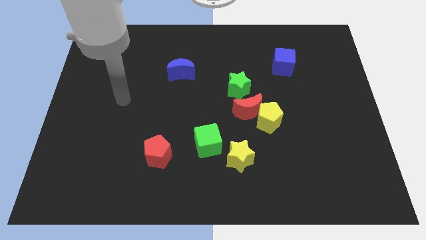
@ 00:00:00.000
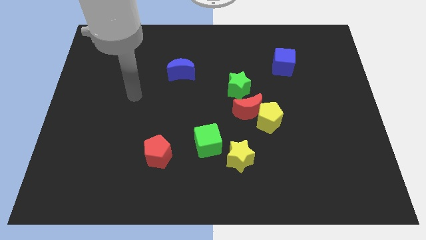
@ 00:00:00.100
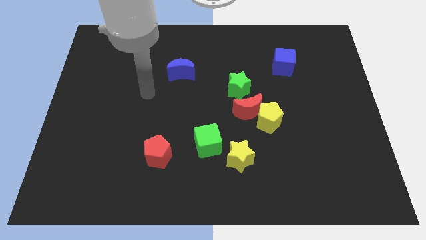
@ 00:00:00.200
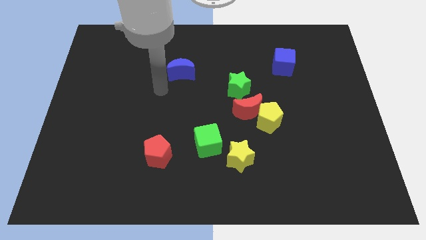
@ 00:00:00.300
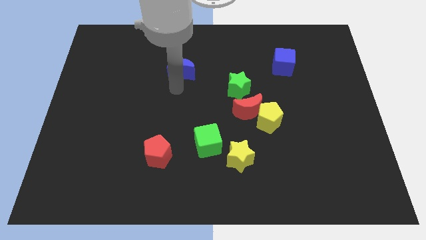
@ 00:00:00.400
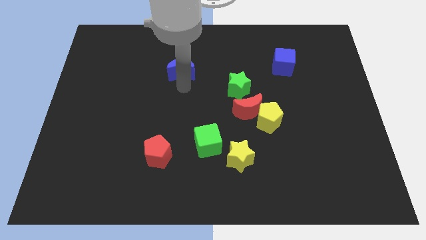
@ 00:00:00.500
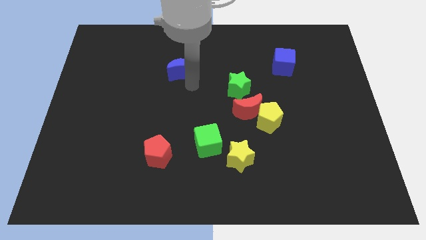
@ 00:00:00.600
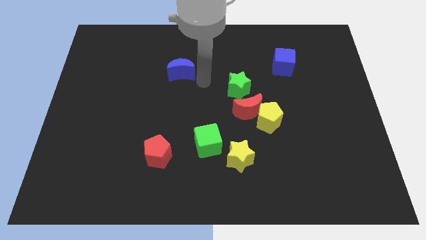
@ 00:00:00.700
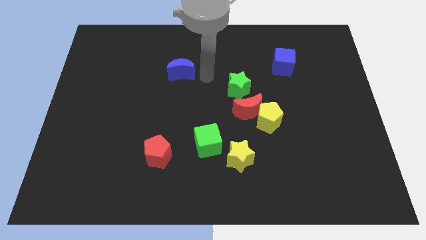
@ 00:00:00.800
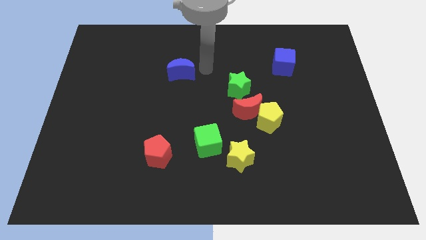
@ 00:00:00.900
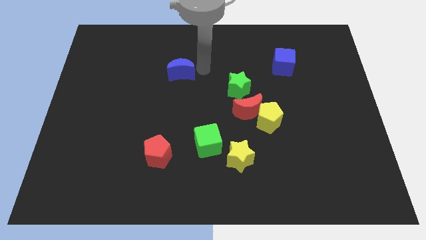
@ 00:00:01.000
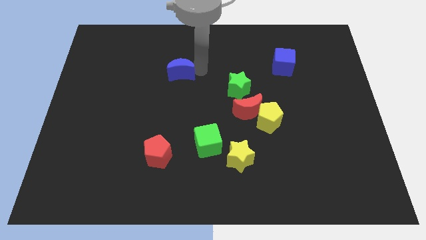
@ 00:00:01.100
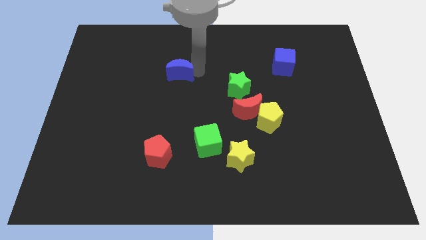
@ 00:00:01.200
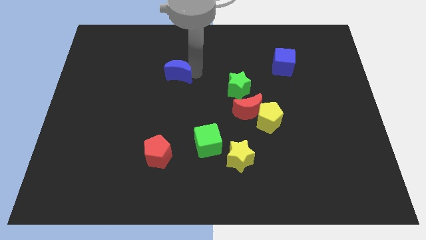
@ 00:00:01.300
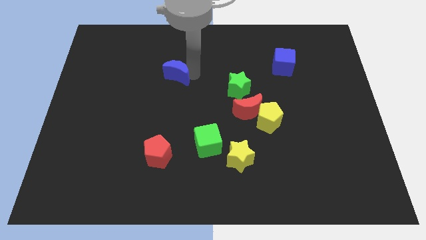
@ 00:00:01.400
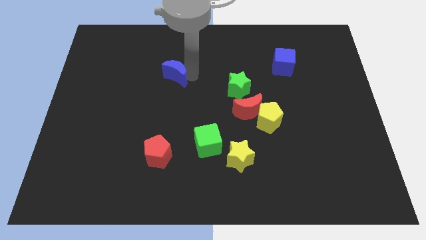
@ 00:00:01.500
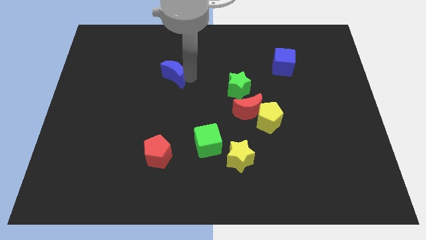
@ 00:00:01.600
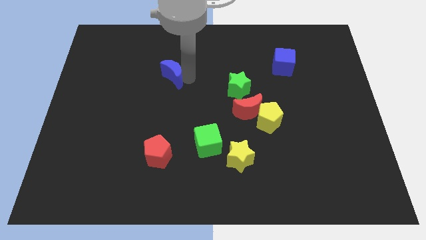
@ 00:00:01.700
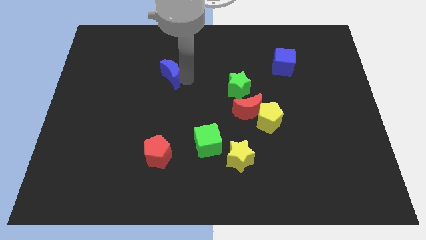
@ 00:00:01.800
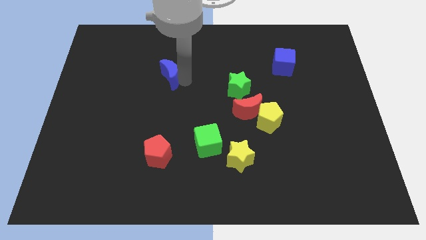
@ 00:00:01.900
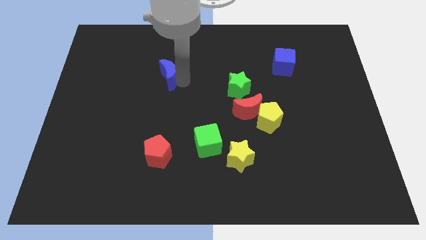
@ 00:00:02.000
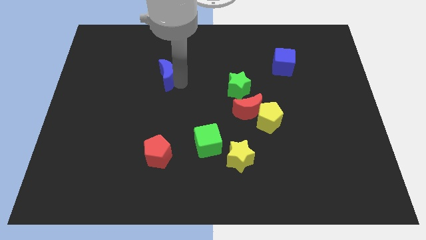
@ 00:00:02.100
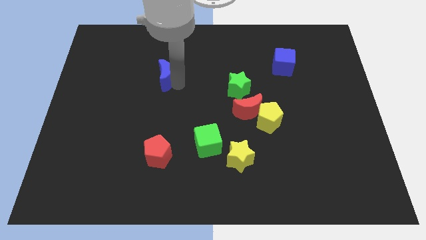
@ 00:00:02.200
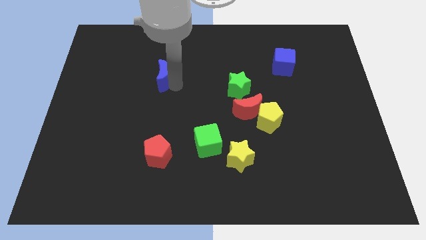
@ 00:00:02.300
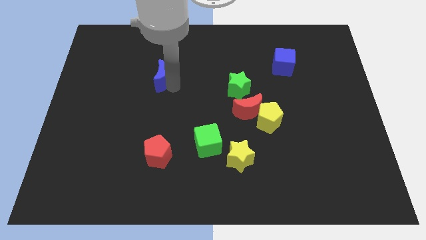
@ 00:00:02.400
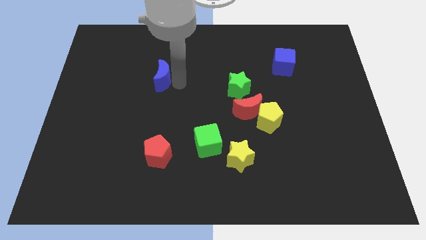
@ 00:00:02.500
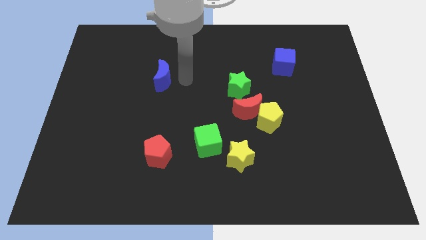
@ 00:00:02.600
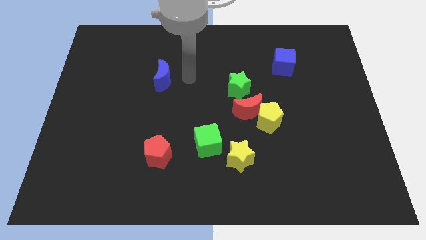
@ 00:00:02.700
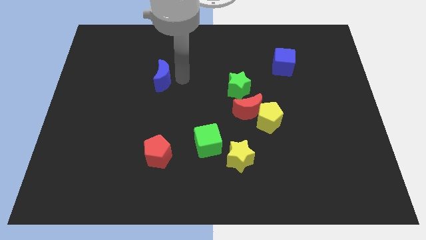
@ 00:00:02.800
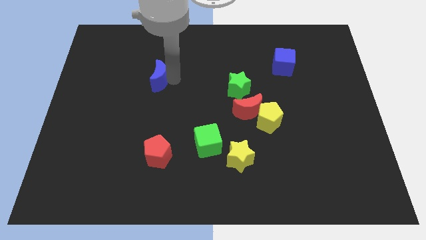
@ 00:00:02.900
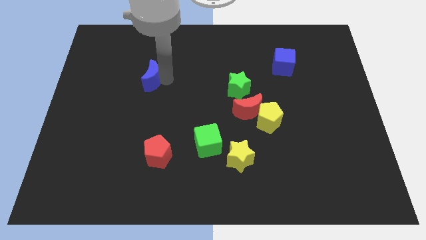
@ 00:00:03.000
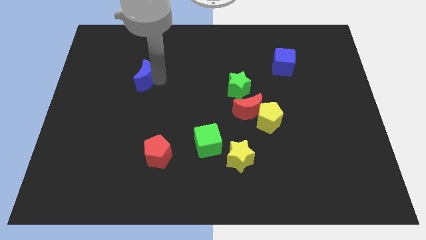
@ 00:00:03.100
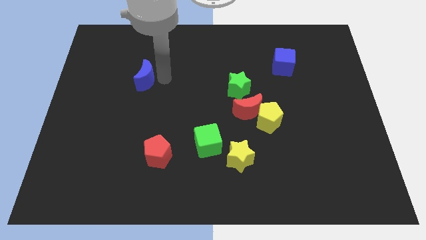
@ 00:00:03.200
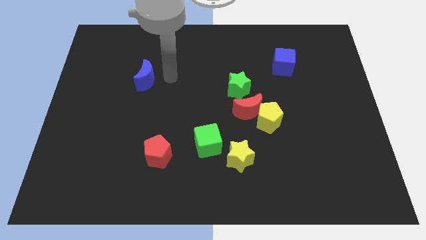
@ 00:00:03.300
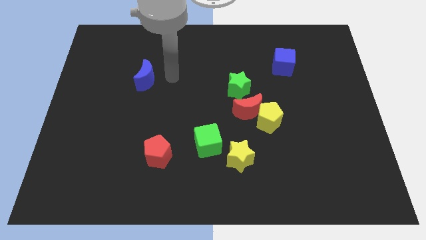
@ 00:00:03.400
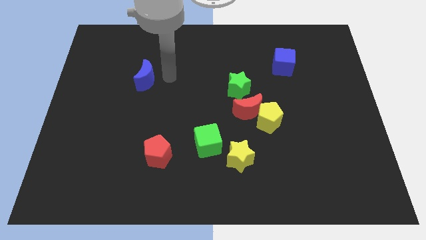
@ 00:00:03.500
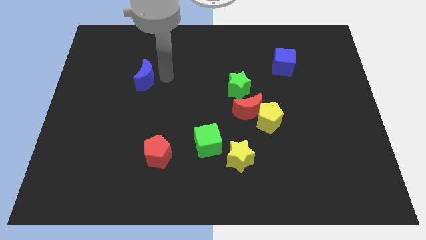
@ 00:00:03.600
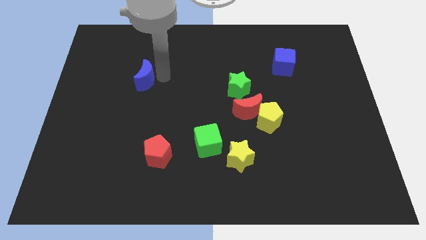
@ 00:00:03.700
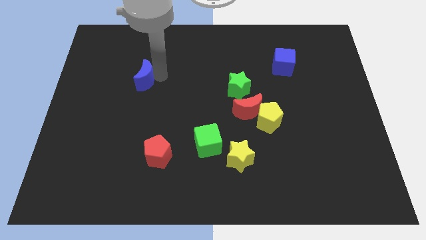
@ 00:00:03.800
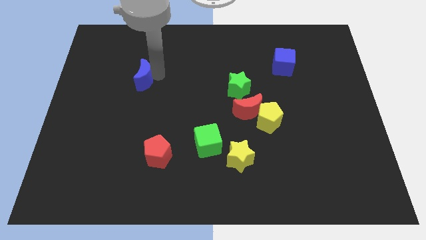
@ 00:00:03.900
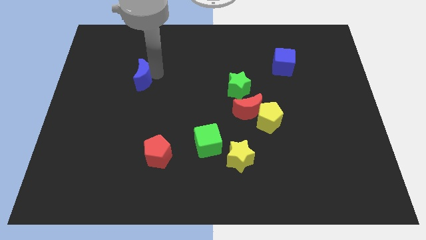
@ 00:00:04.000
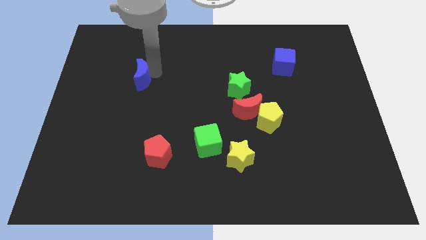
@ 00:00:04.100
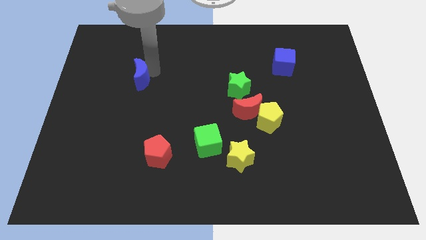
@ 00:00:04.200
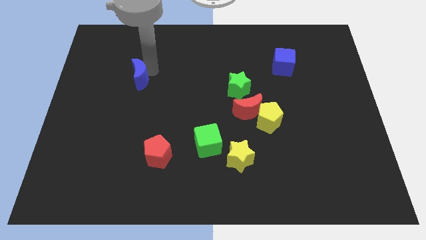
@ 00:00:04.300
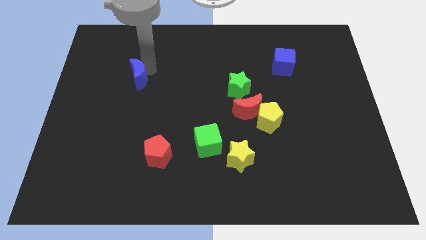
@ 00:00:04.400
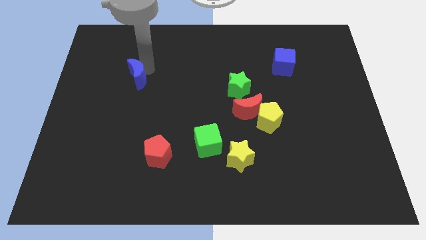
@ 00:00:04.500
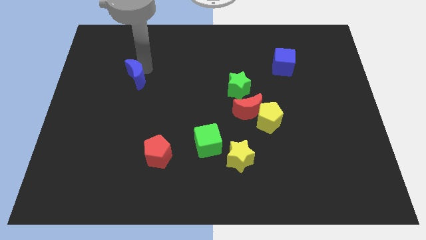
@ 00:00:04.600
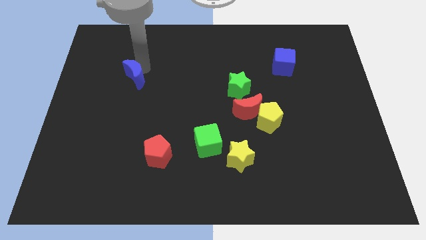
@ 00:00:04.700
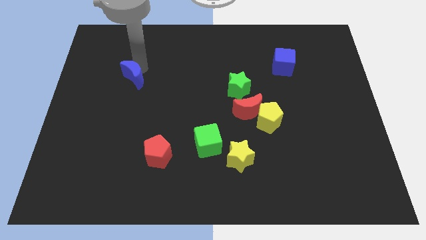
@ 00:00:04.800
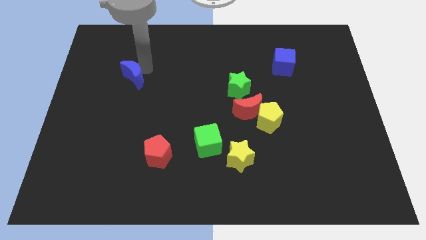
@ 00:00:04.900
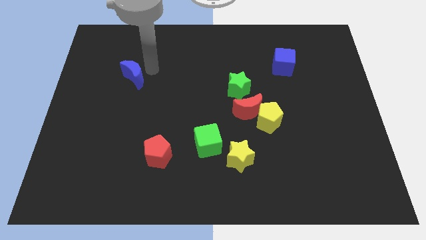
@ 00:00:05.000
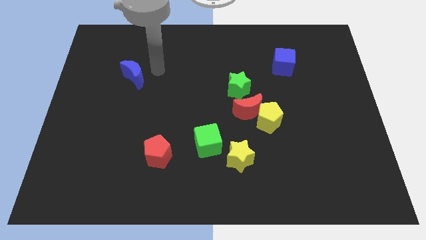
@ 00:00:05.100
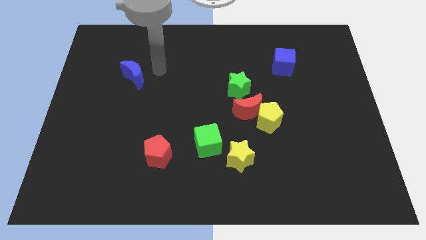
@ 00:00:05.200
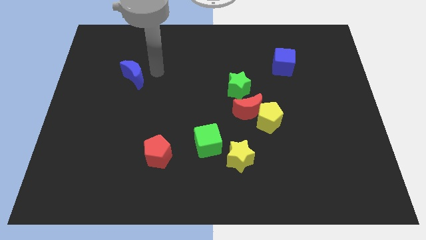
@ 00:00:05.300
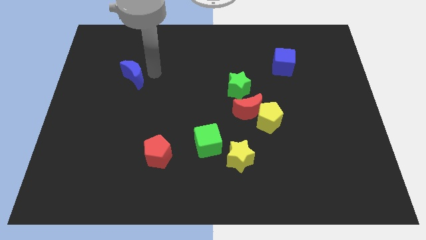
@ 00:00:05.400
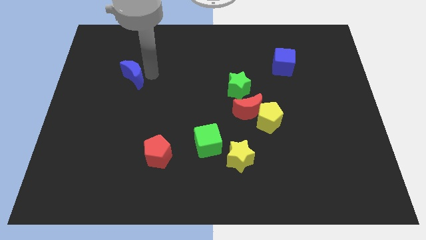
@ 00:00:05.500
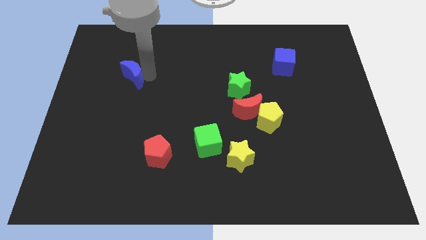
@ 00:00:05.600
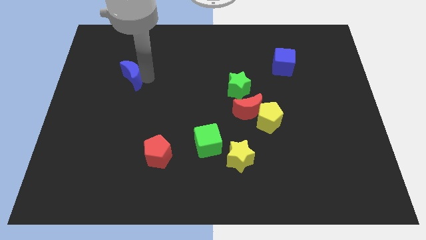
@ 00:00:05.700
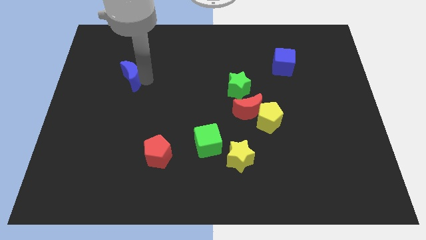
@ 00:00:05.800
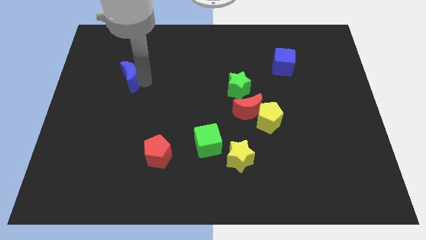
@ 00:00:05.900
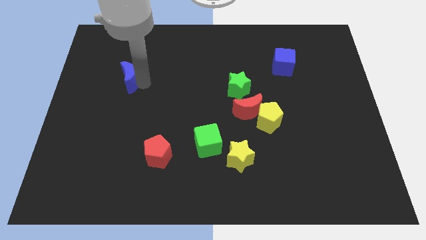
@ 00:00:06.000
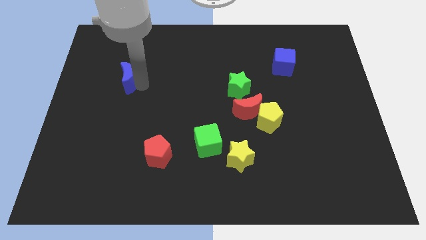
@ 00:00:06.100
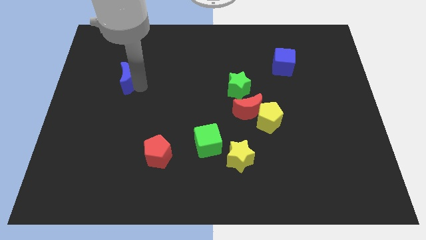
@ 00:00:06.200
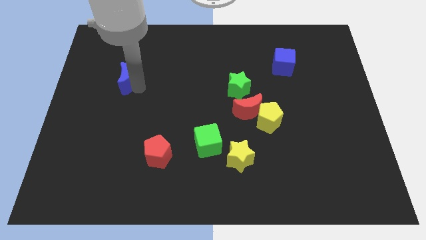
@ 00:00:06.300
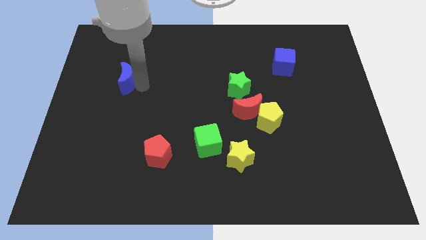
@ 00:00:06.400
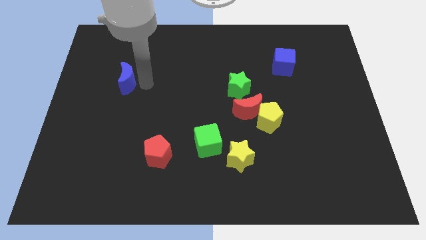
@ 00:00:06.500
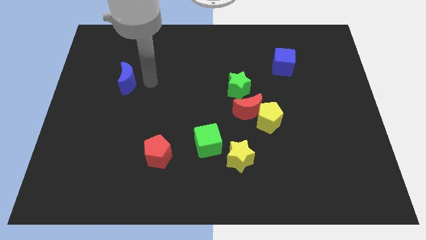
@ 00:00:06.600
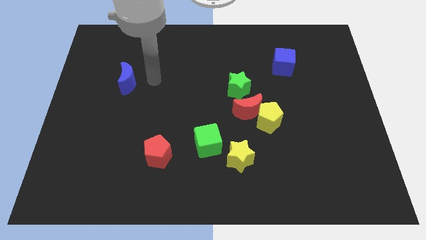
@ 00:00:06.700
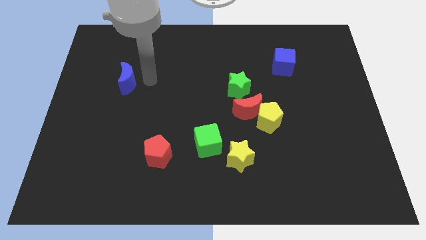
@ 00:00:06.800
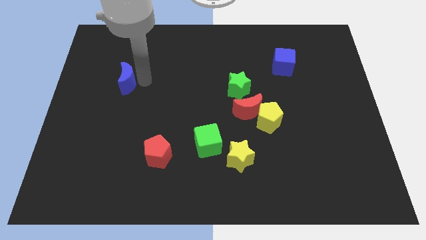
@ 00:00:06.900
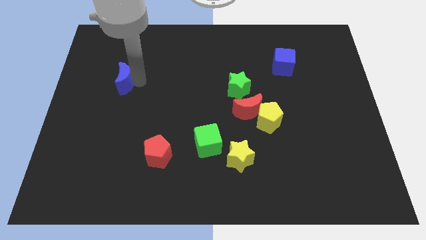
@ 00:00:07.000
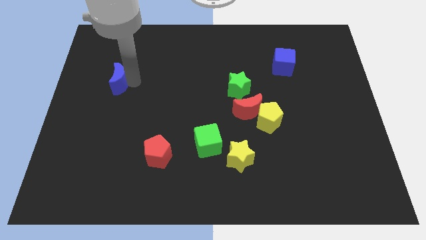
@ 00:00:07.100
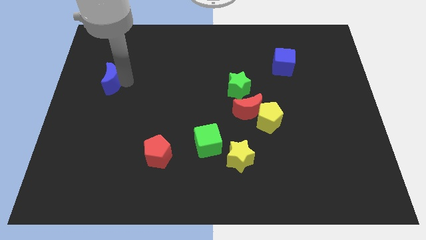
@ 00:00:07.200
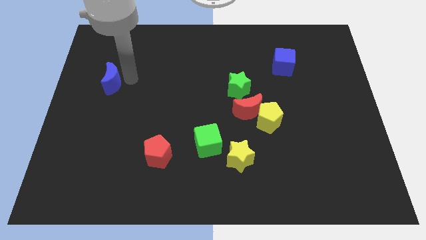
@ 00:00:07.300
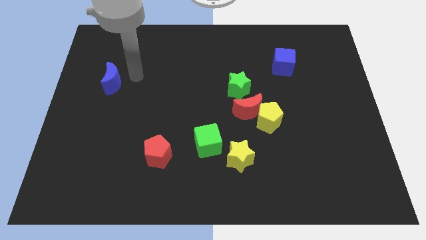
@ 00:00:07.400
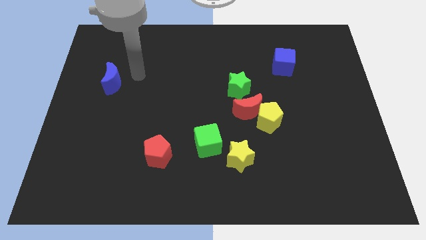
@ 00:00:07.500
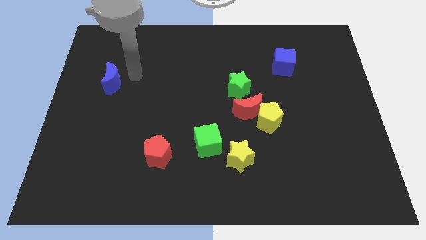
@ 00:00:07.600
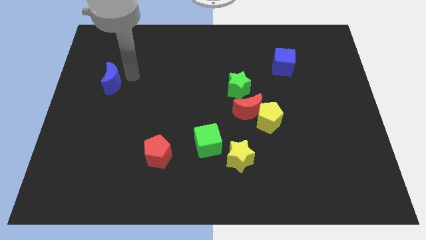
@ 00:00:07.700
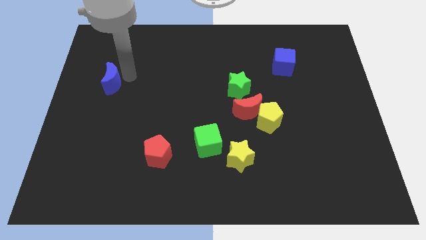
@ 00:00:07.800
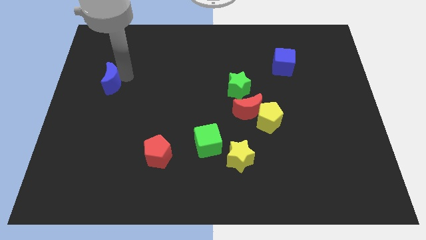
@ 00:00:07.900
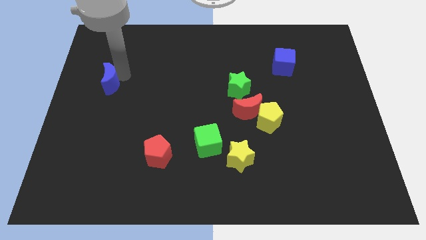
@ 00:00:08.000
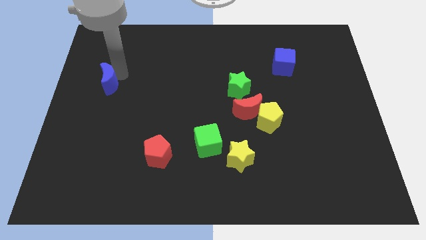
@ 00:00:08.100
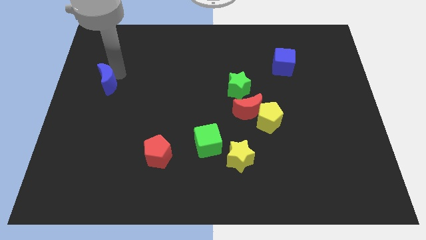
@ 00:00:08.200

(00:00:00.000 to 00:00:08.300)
slide the blue moon to the center left
